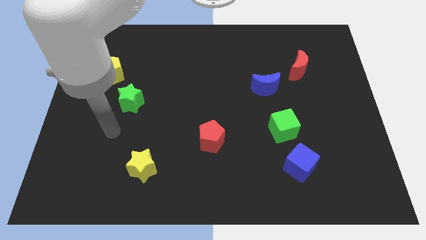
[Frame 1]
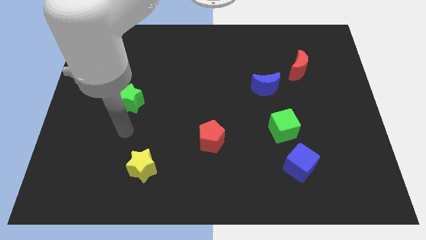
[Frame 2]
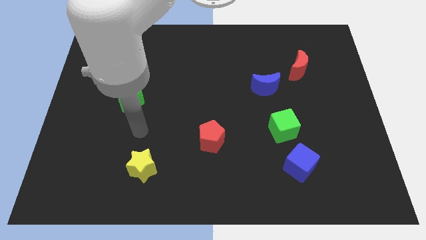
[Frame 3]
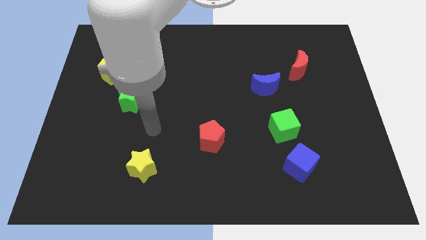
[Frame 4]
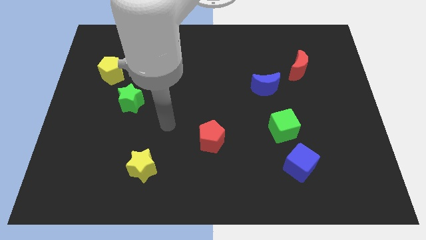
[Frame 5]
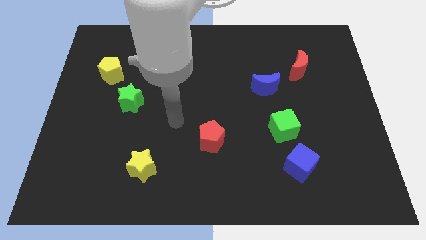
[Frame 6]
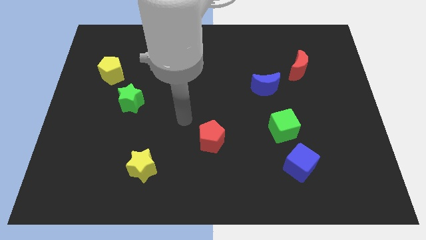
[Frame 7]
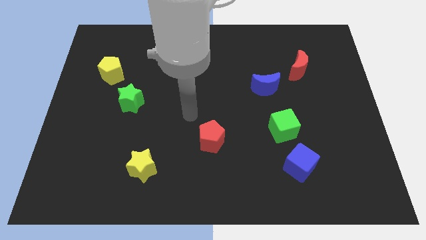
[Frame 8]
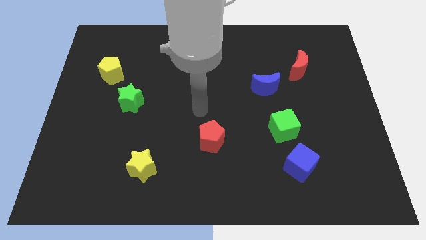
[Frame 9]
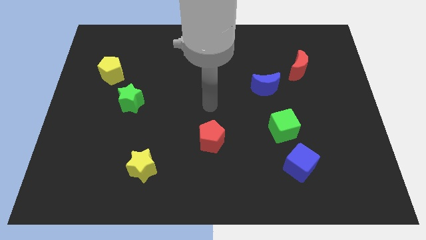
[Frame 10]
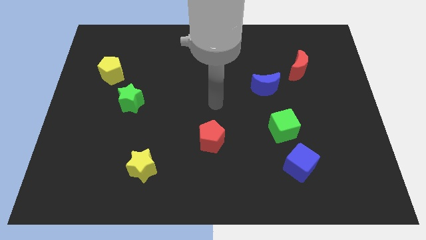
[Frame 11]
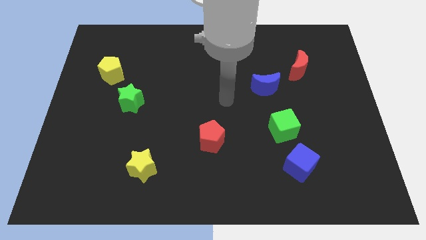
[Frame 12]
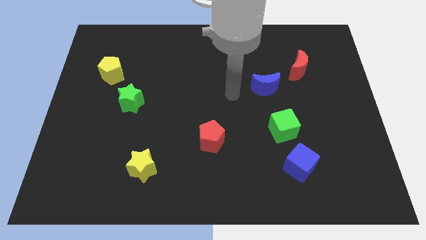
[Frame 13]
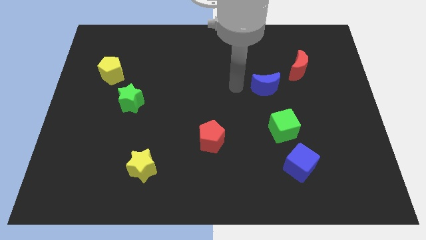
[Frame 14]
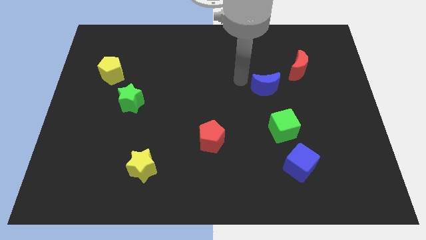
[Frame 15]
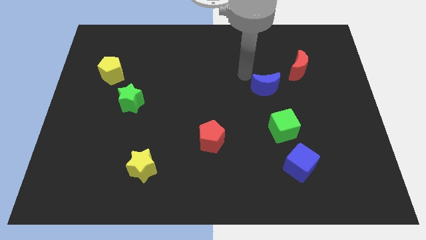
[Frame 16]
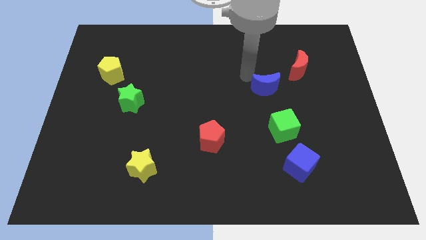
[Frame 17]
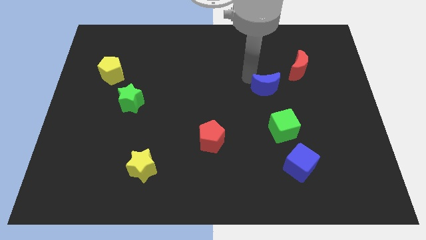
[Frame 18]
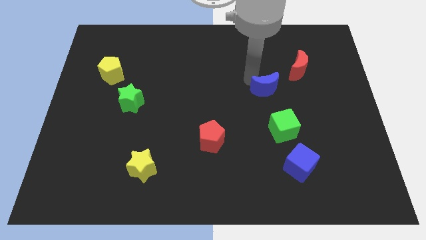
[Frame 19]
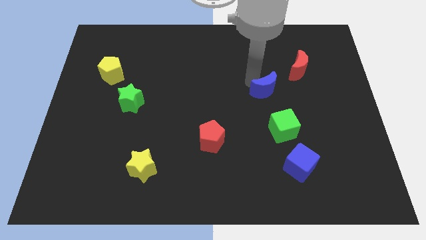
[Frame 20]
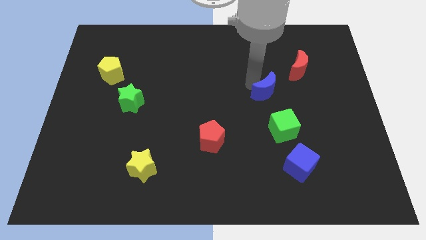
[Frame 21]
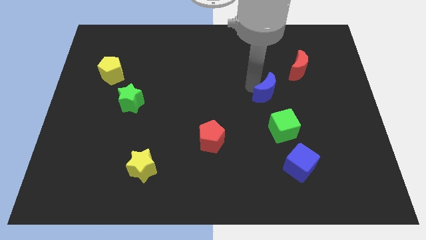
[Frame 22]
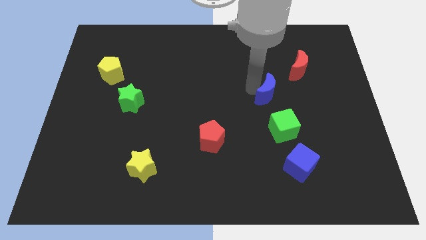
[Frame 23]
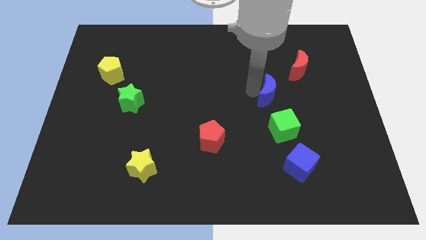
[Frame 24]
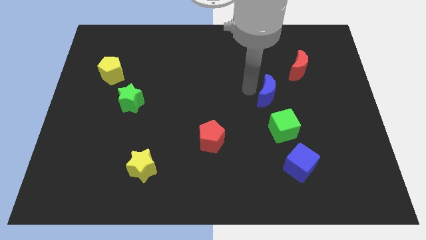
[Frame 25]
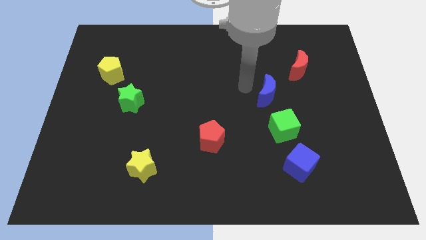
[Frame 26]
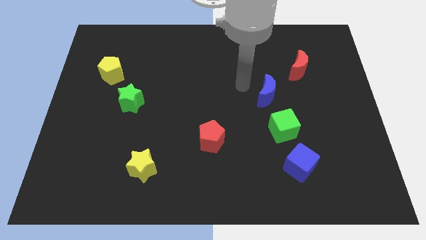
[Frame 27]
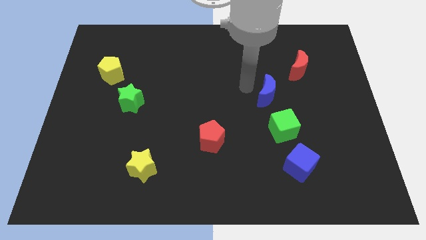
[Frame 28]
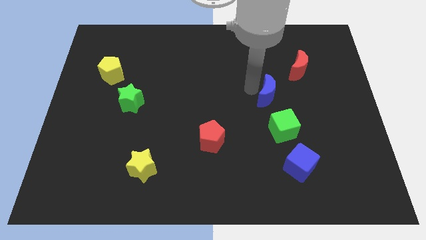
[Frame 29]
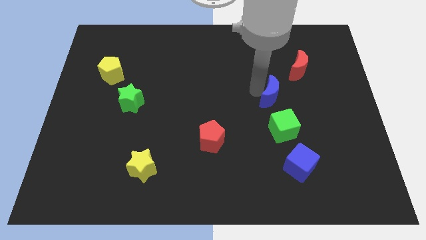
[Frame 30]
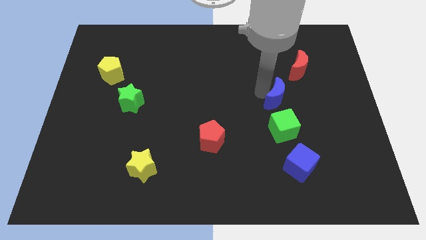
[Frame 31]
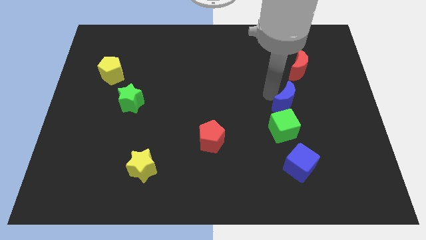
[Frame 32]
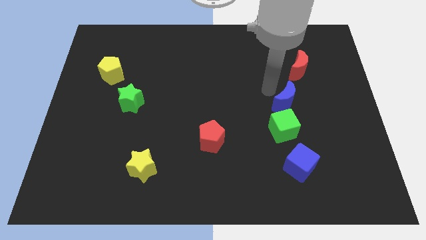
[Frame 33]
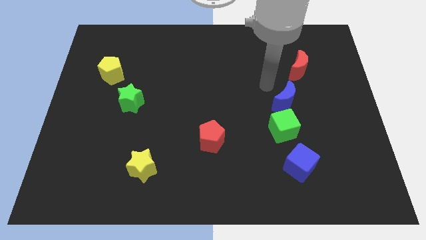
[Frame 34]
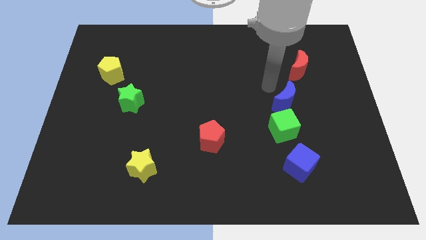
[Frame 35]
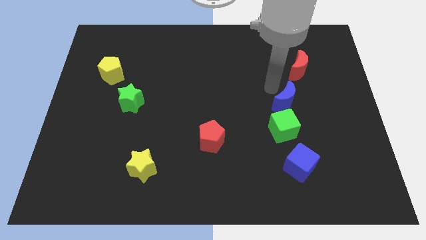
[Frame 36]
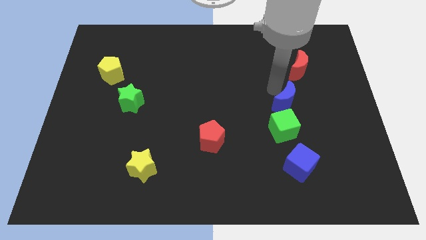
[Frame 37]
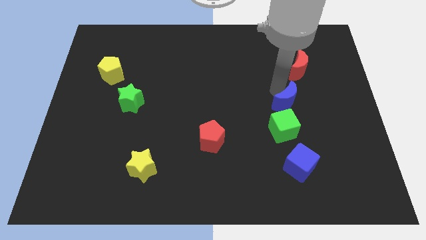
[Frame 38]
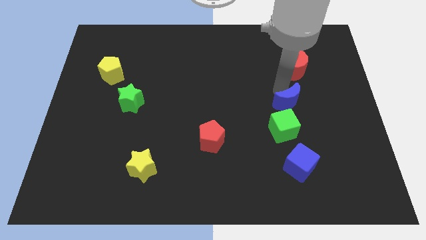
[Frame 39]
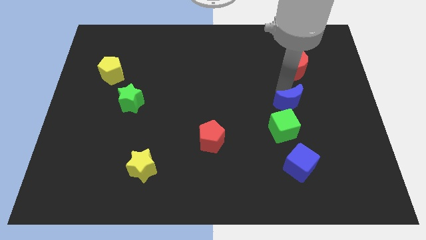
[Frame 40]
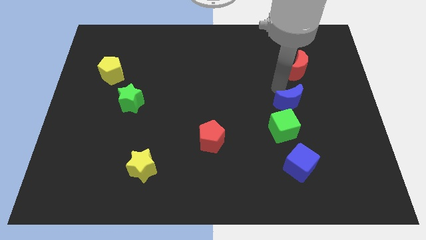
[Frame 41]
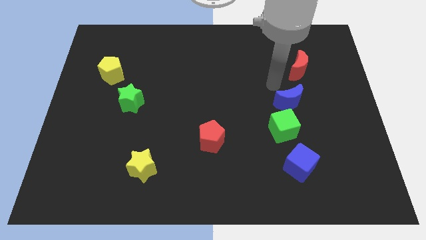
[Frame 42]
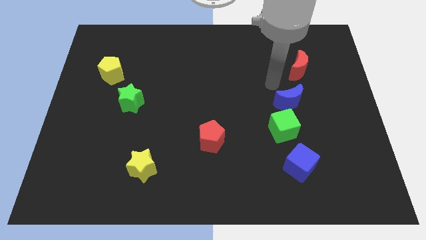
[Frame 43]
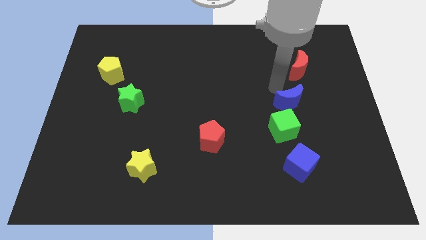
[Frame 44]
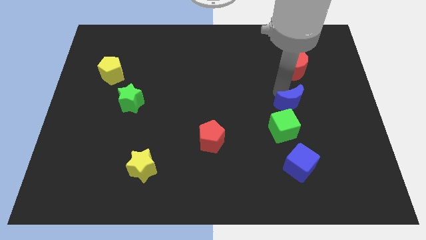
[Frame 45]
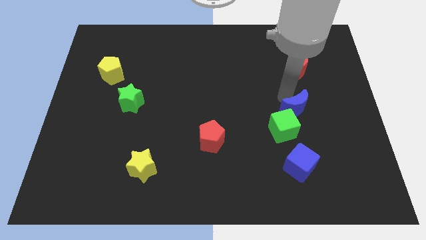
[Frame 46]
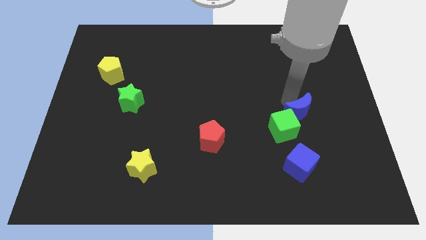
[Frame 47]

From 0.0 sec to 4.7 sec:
push the blue moon to the right of the green cube

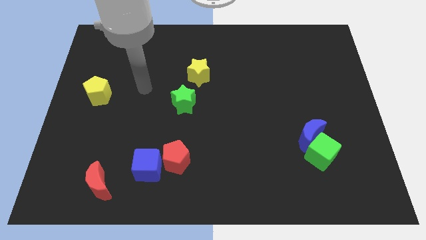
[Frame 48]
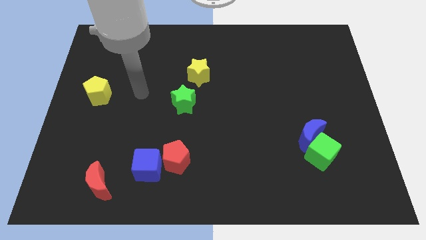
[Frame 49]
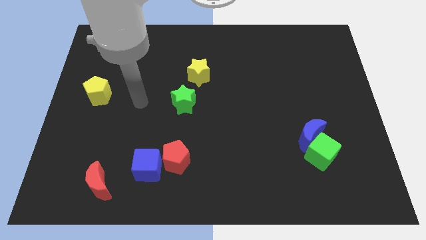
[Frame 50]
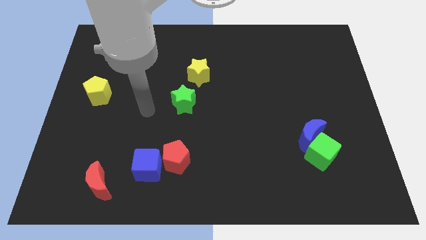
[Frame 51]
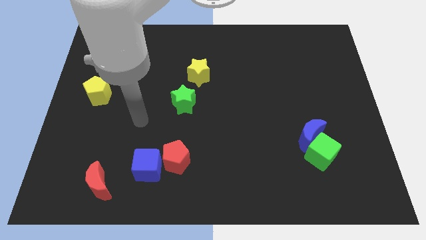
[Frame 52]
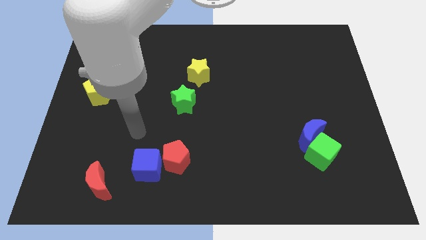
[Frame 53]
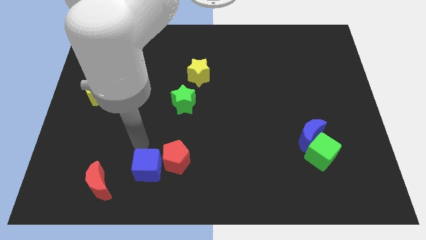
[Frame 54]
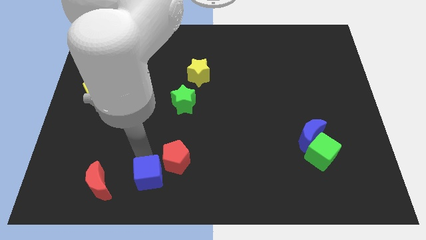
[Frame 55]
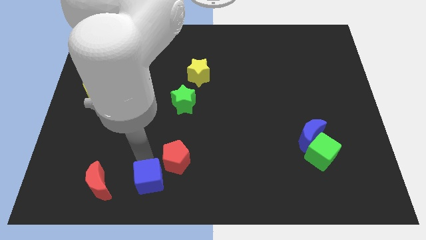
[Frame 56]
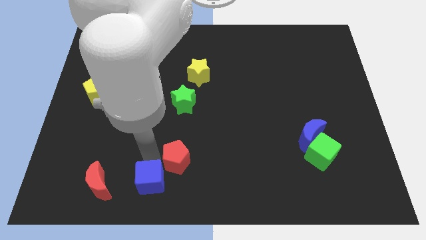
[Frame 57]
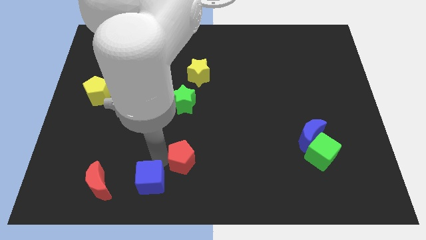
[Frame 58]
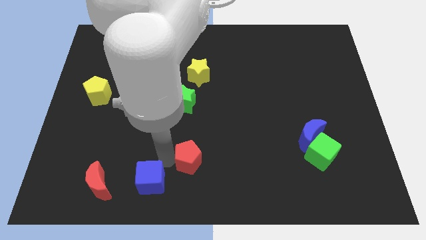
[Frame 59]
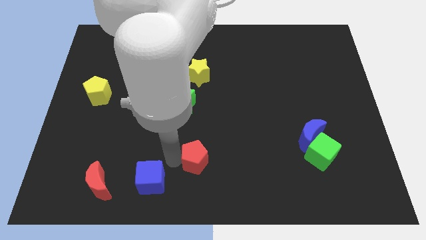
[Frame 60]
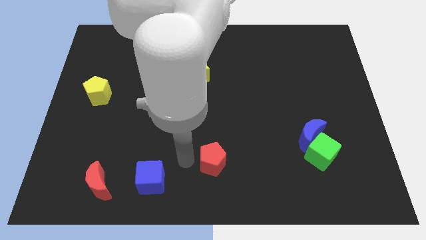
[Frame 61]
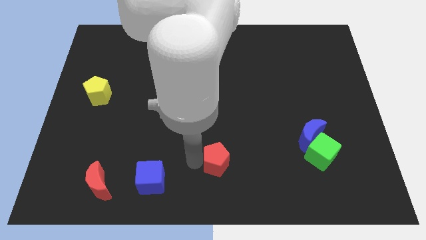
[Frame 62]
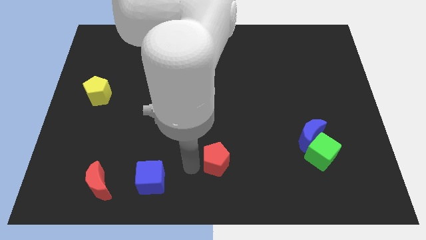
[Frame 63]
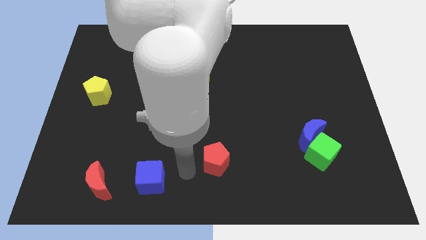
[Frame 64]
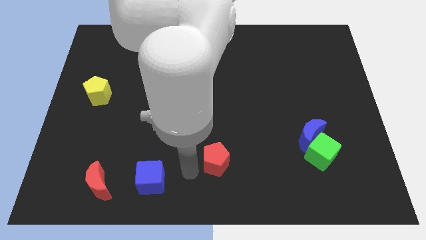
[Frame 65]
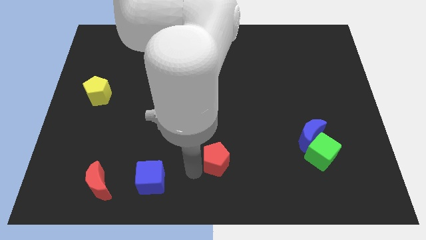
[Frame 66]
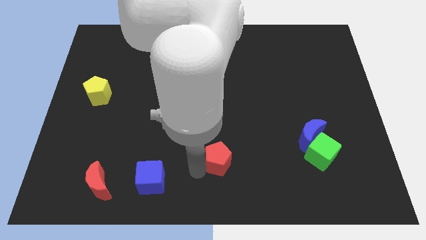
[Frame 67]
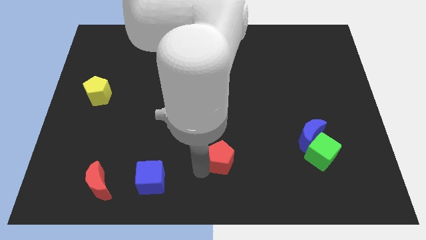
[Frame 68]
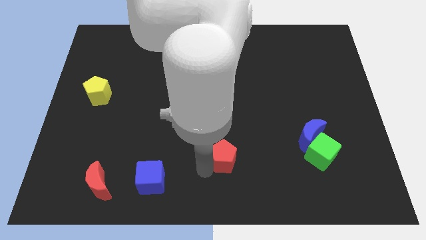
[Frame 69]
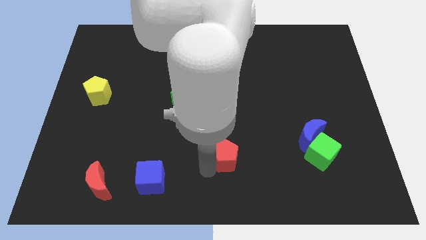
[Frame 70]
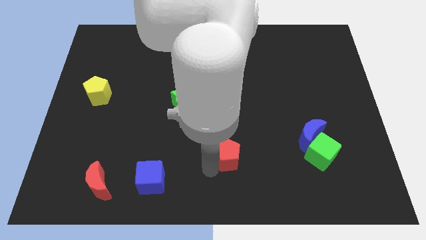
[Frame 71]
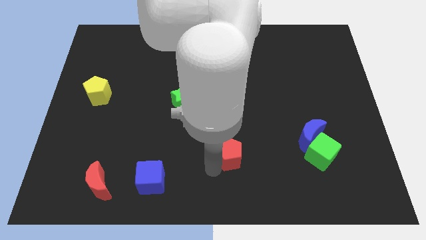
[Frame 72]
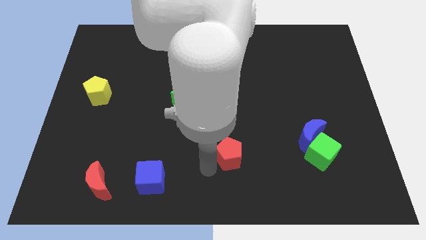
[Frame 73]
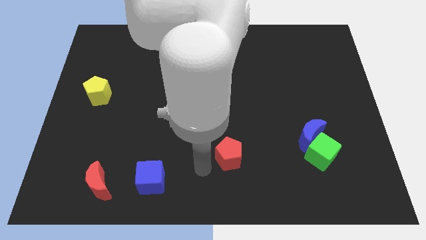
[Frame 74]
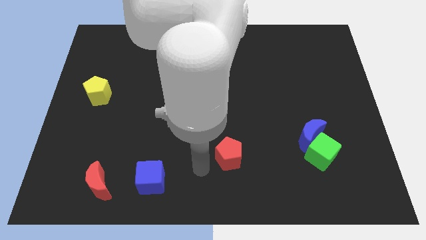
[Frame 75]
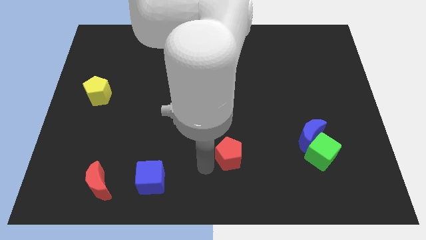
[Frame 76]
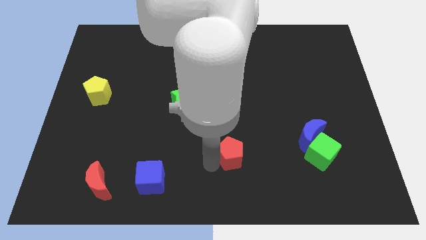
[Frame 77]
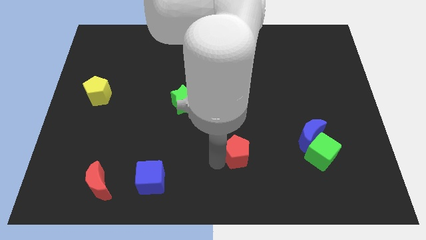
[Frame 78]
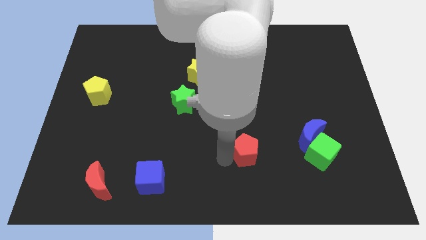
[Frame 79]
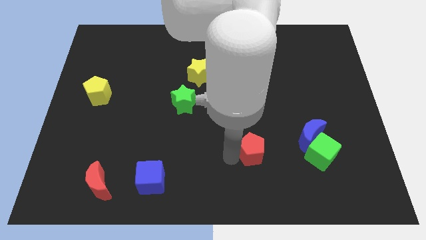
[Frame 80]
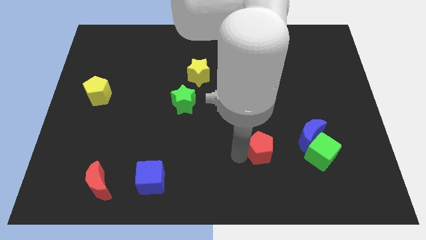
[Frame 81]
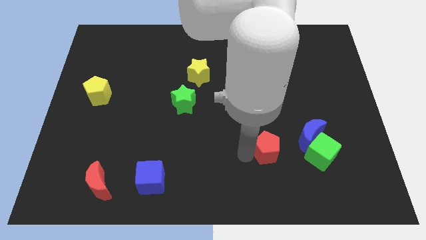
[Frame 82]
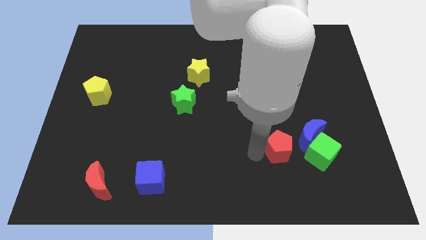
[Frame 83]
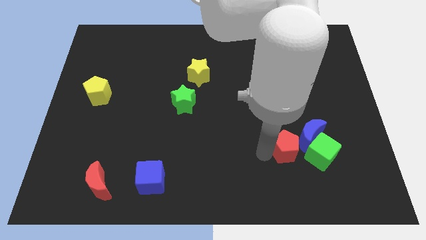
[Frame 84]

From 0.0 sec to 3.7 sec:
put the red pentagon to the top left side of the green cube
